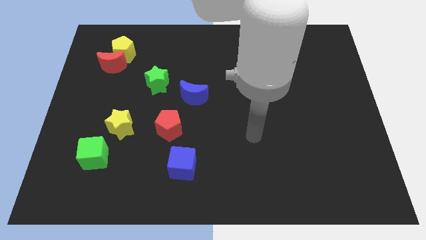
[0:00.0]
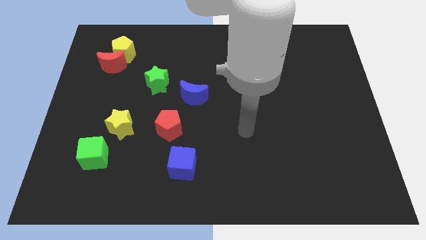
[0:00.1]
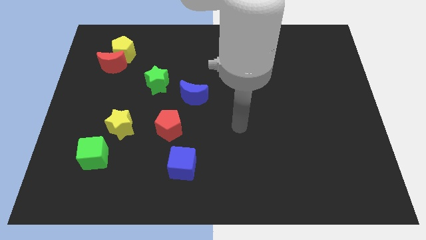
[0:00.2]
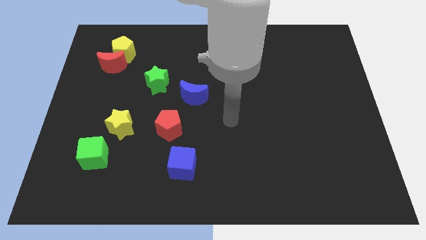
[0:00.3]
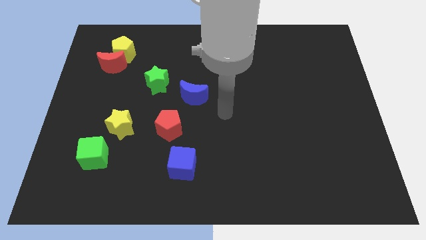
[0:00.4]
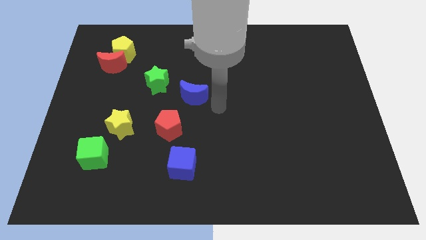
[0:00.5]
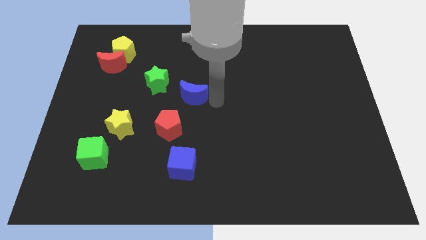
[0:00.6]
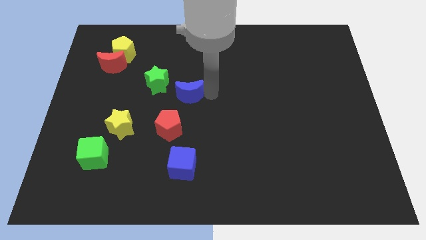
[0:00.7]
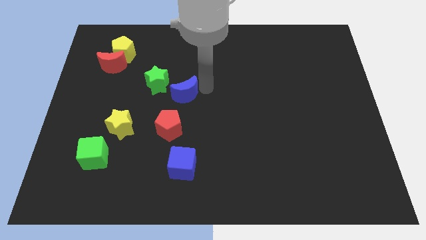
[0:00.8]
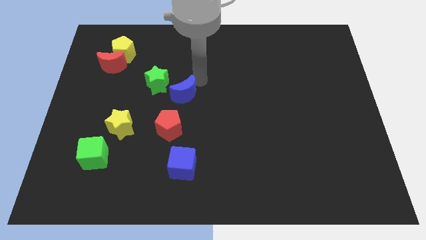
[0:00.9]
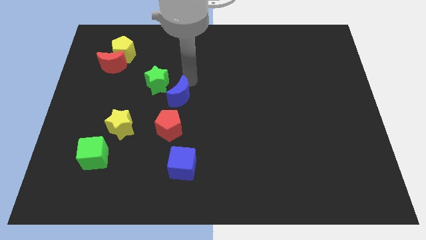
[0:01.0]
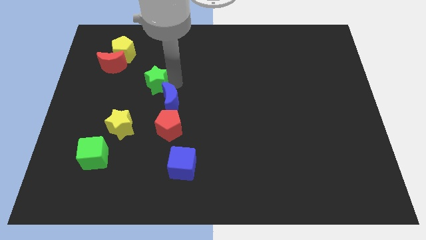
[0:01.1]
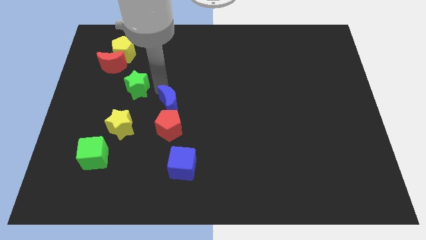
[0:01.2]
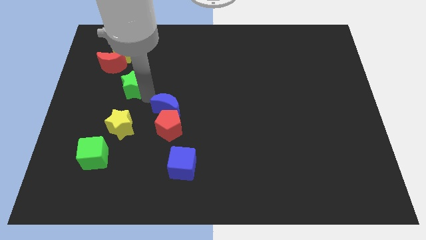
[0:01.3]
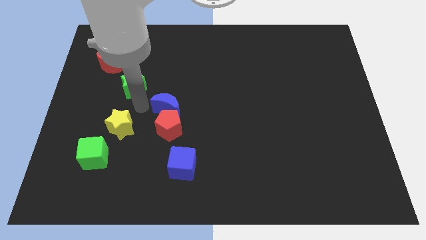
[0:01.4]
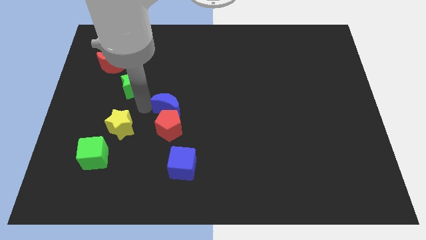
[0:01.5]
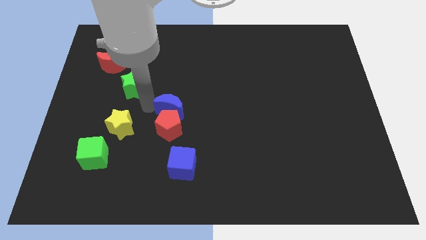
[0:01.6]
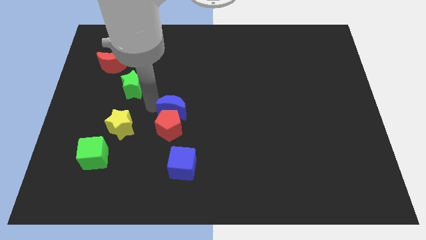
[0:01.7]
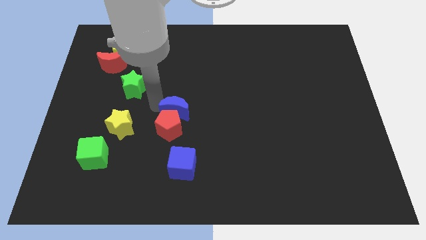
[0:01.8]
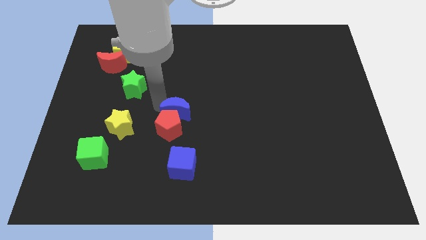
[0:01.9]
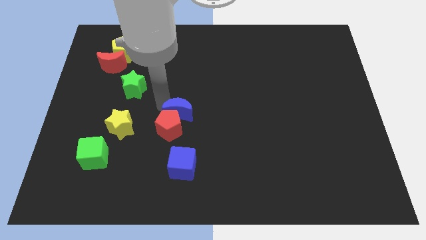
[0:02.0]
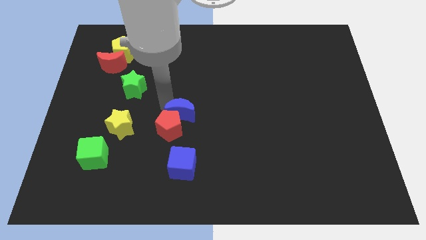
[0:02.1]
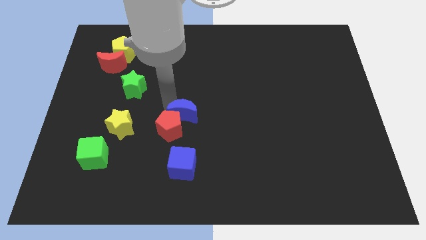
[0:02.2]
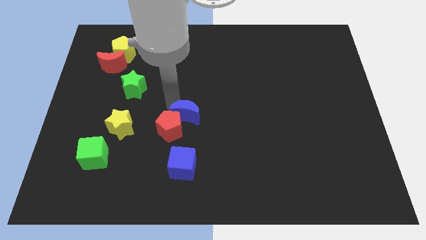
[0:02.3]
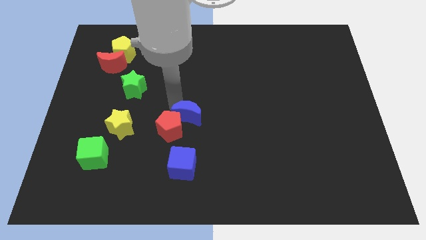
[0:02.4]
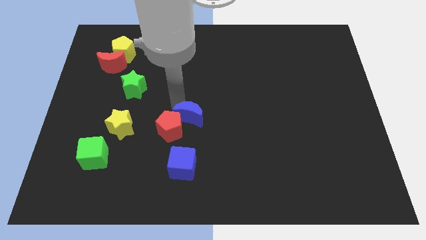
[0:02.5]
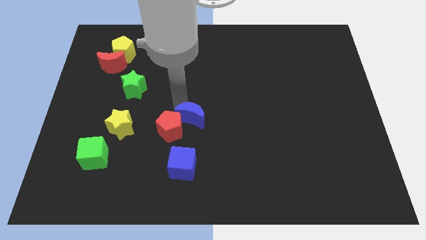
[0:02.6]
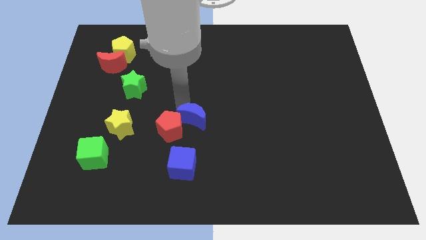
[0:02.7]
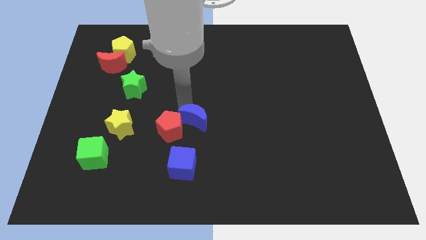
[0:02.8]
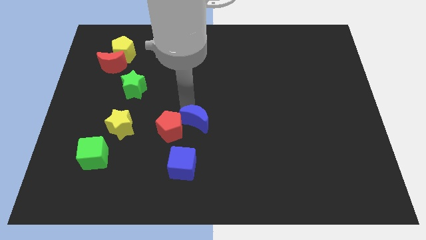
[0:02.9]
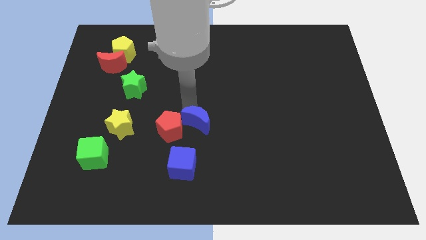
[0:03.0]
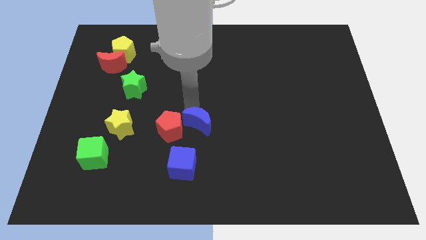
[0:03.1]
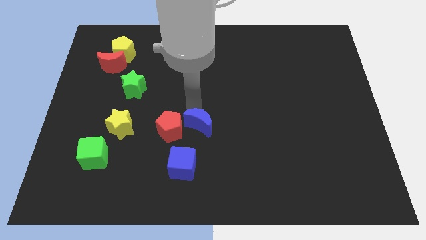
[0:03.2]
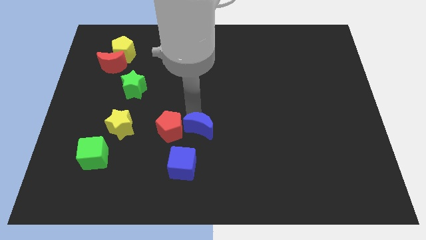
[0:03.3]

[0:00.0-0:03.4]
move the blue moon diagonally down and to the right a bit

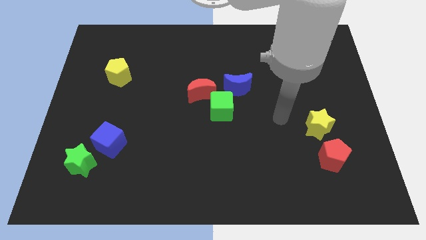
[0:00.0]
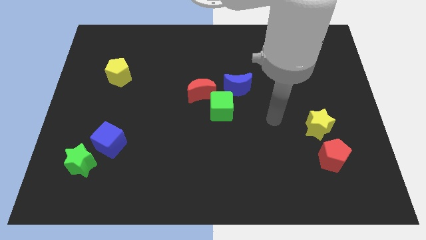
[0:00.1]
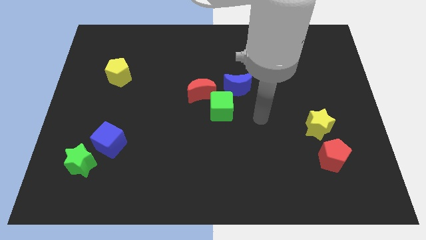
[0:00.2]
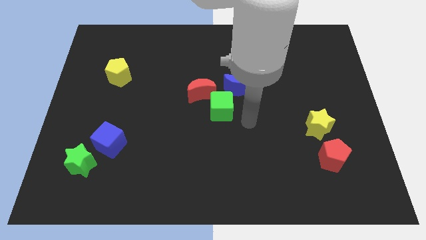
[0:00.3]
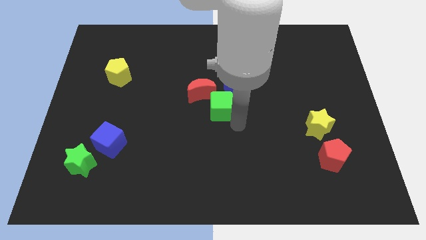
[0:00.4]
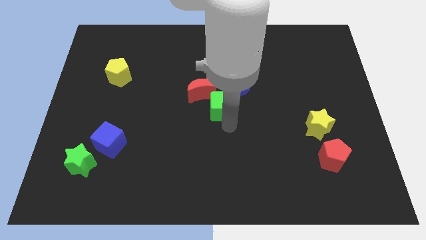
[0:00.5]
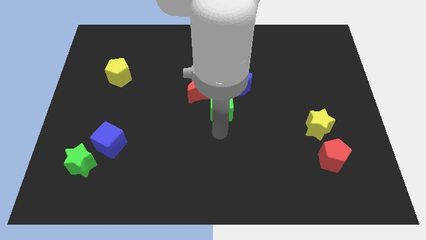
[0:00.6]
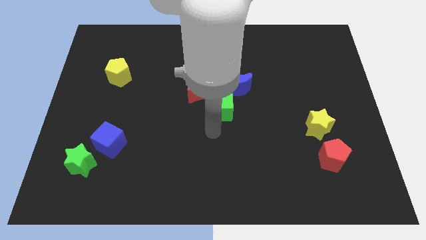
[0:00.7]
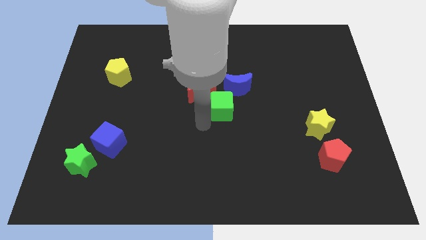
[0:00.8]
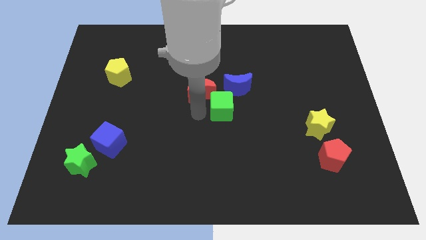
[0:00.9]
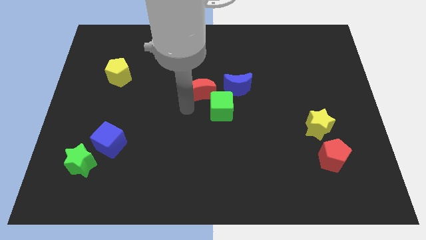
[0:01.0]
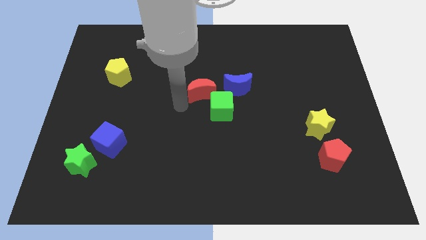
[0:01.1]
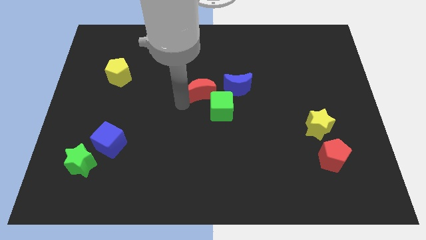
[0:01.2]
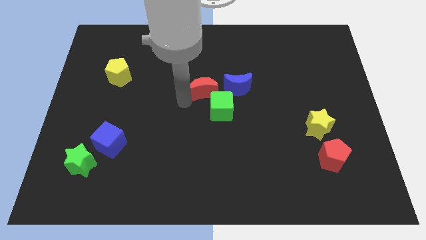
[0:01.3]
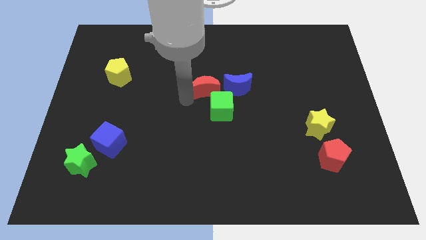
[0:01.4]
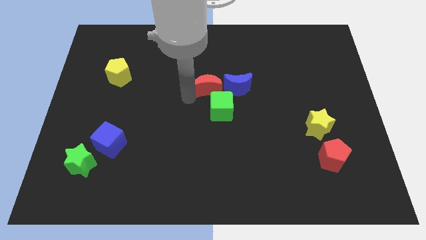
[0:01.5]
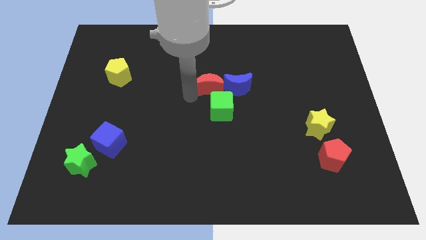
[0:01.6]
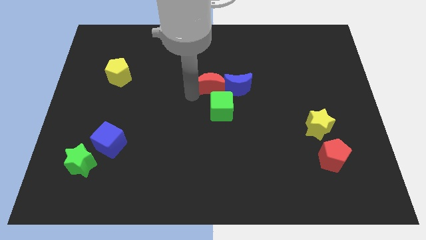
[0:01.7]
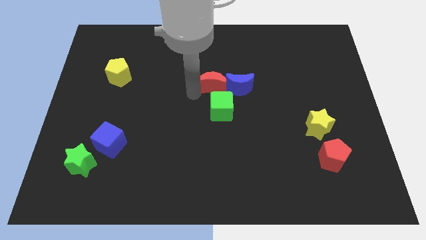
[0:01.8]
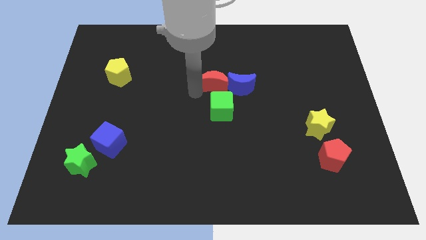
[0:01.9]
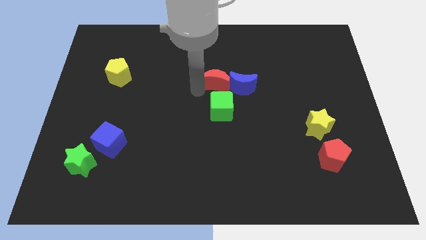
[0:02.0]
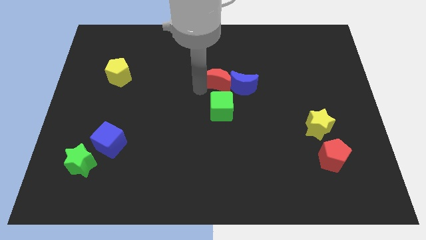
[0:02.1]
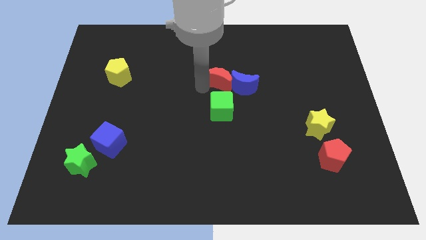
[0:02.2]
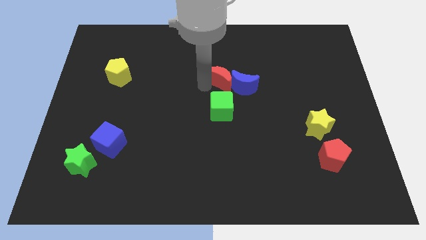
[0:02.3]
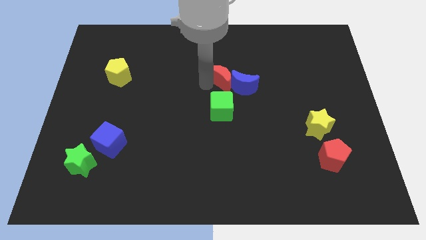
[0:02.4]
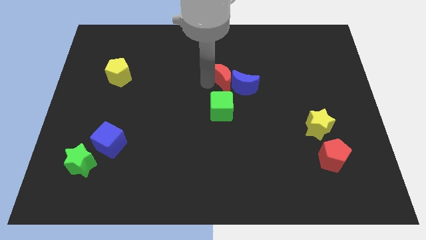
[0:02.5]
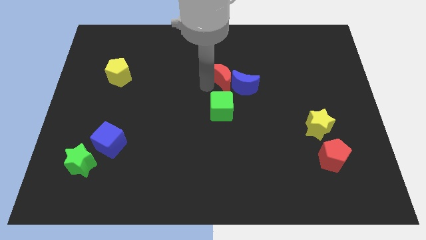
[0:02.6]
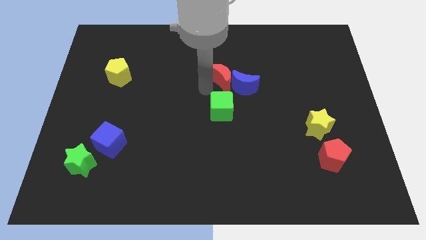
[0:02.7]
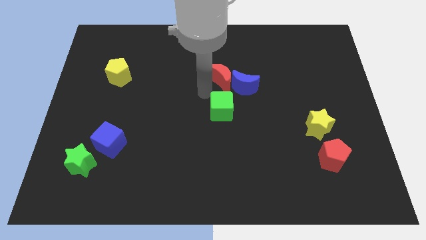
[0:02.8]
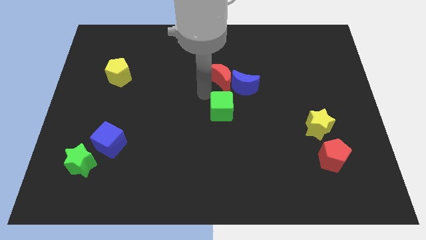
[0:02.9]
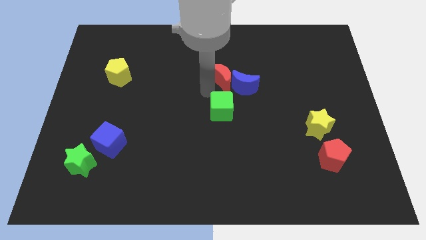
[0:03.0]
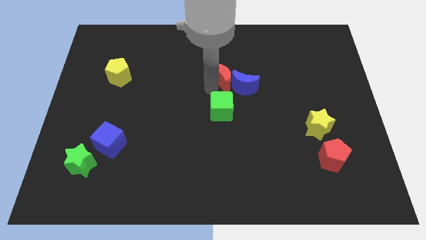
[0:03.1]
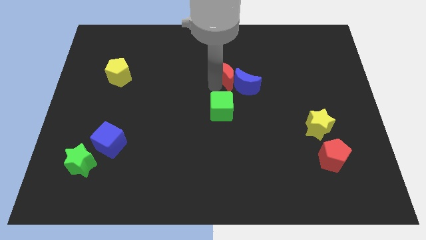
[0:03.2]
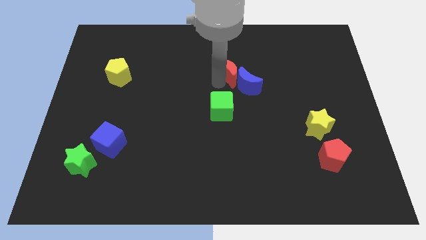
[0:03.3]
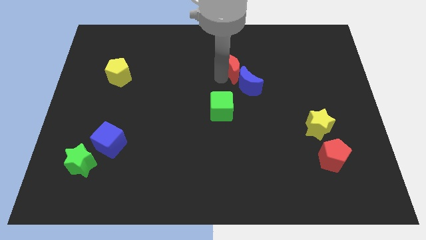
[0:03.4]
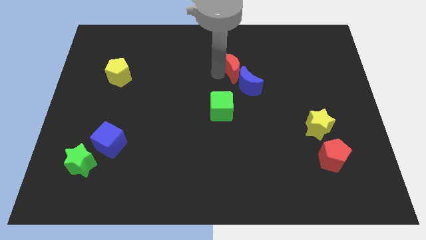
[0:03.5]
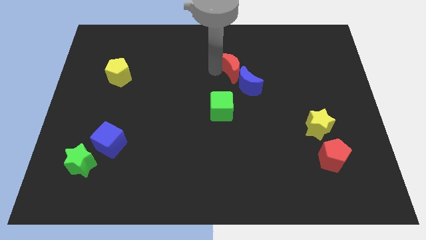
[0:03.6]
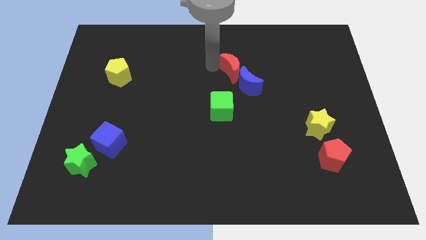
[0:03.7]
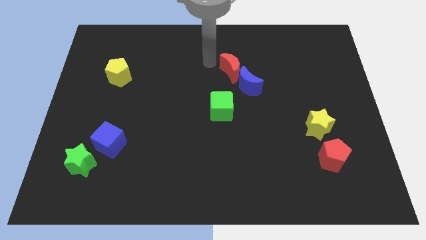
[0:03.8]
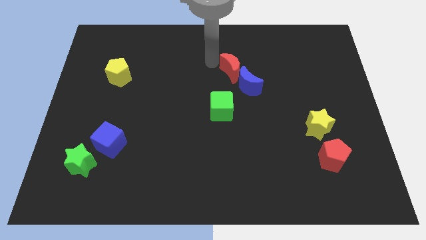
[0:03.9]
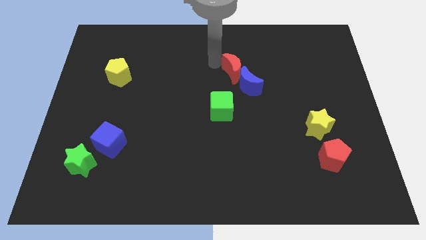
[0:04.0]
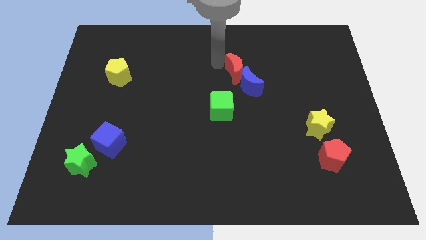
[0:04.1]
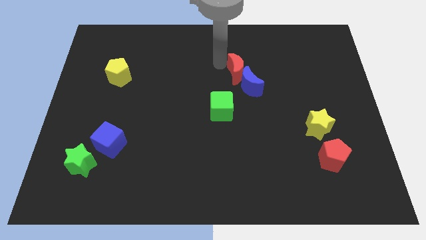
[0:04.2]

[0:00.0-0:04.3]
slightly slide the red moon right

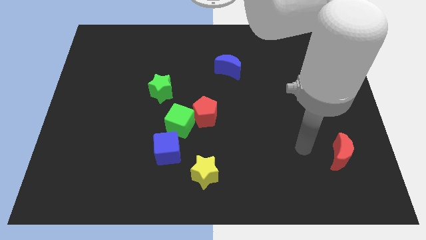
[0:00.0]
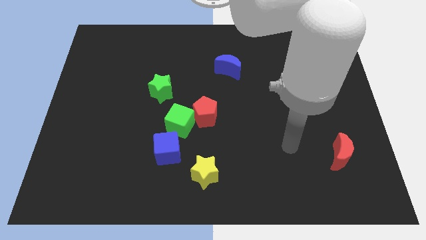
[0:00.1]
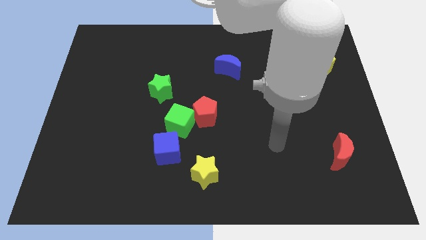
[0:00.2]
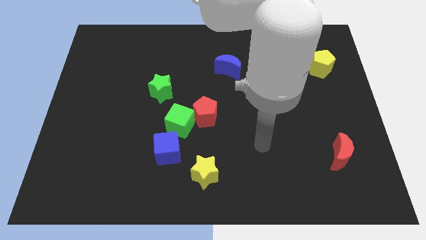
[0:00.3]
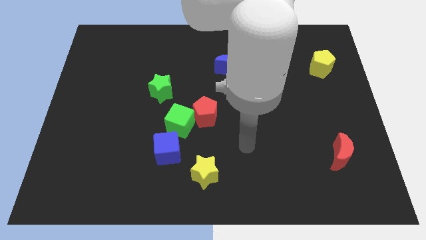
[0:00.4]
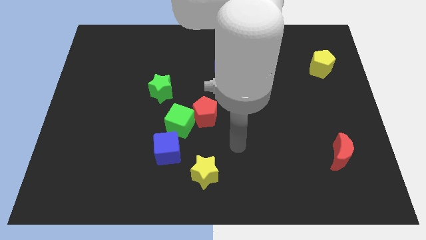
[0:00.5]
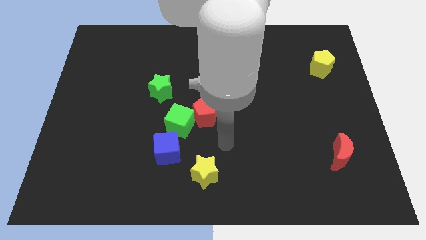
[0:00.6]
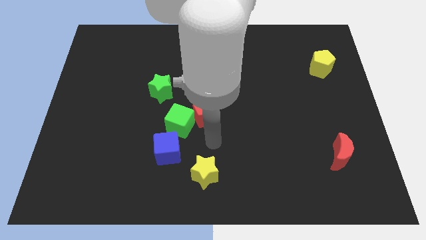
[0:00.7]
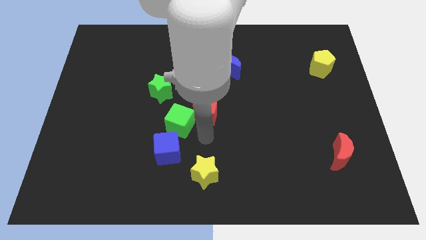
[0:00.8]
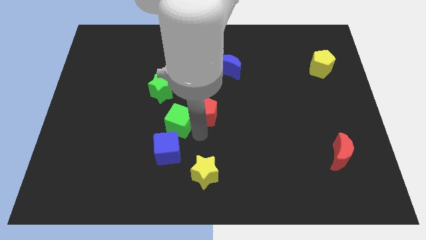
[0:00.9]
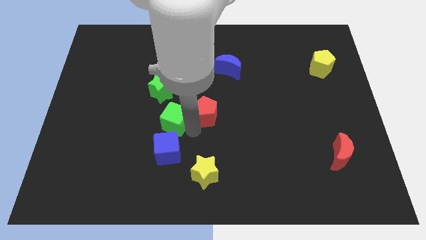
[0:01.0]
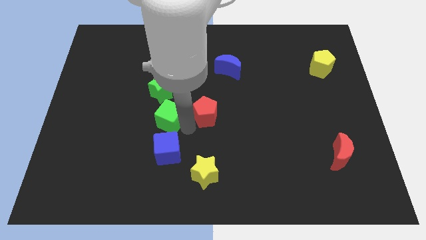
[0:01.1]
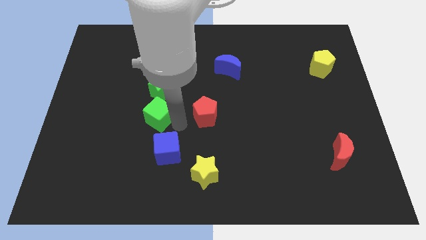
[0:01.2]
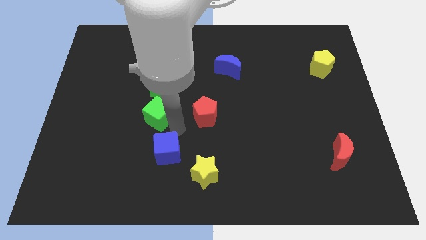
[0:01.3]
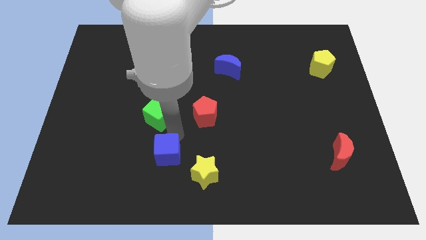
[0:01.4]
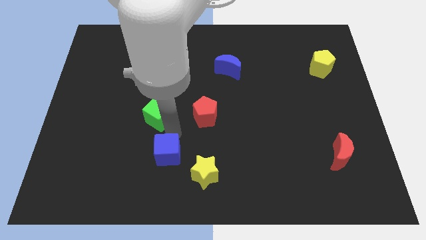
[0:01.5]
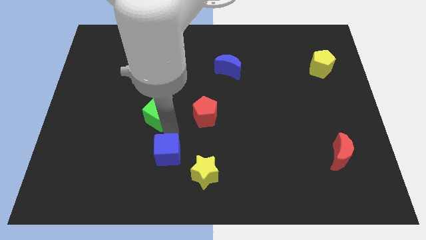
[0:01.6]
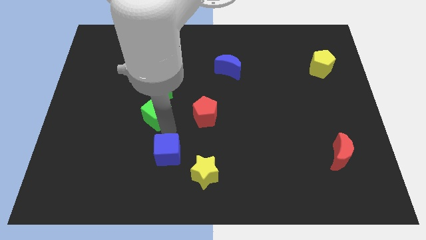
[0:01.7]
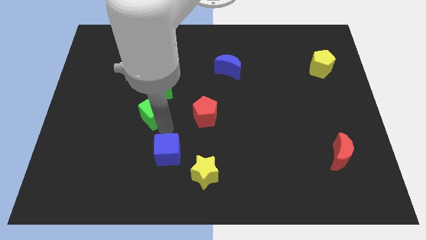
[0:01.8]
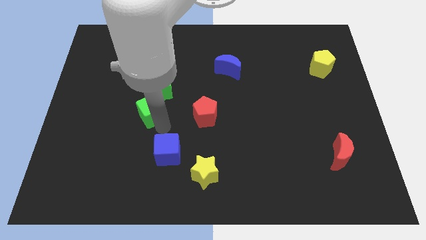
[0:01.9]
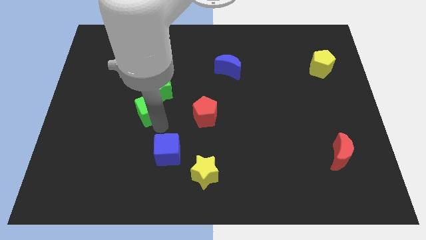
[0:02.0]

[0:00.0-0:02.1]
slightly move the green cube up and then to the left
